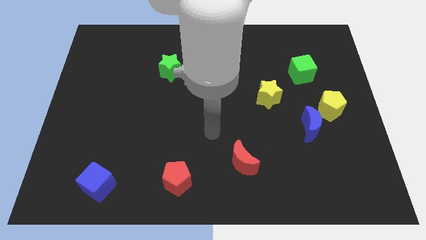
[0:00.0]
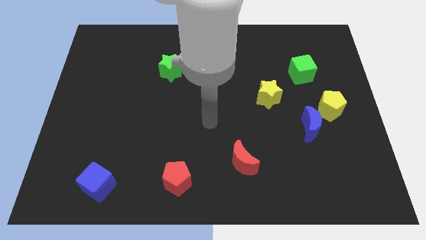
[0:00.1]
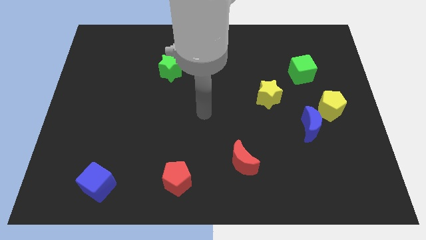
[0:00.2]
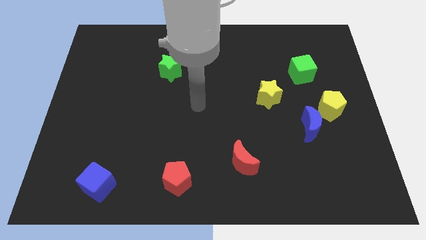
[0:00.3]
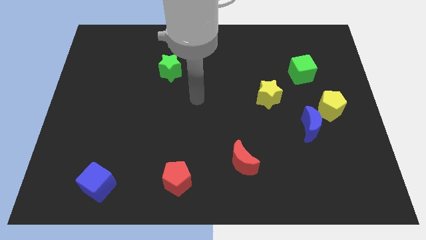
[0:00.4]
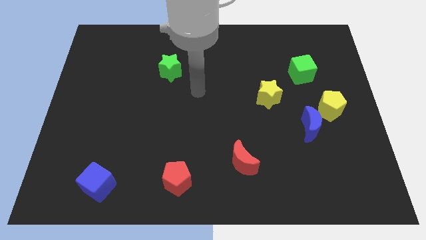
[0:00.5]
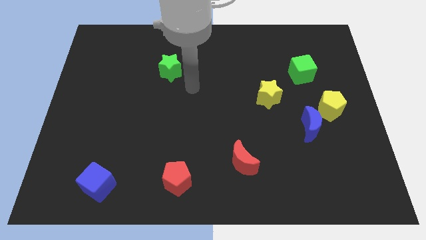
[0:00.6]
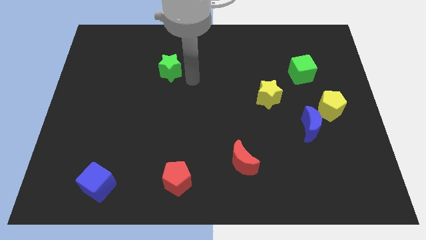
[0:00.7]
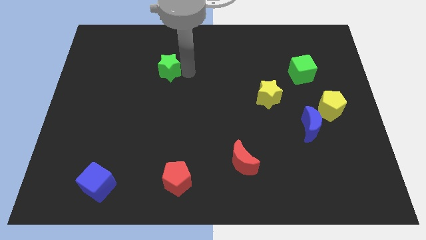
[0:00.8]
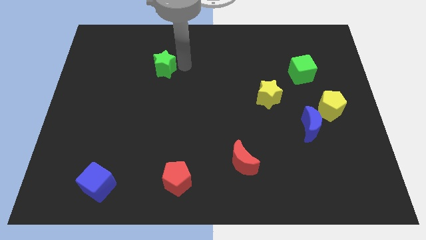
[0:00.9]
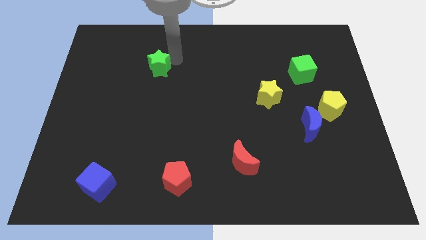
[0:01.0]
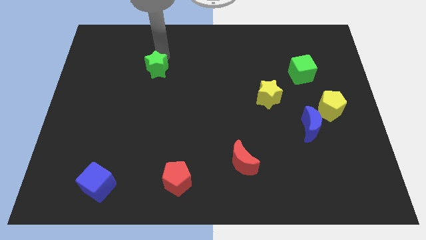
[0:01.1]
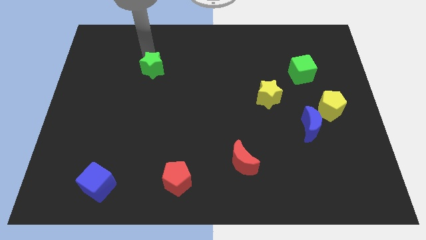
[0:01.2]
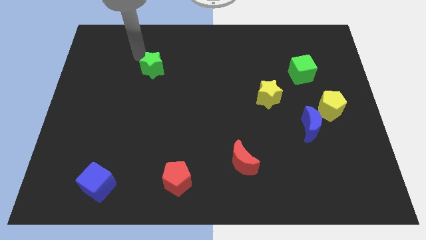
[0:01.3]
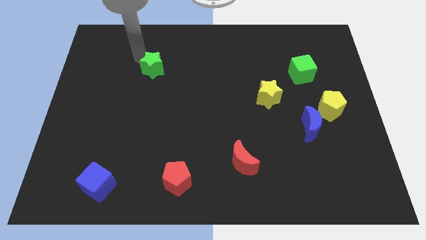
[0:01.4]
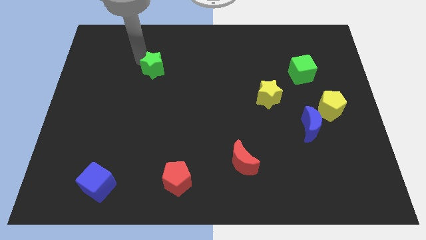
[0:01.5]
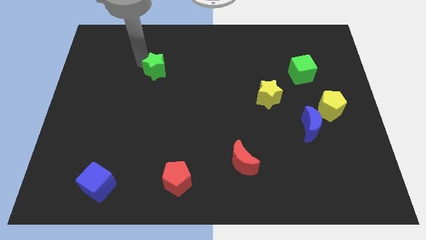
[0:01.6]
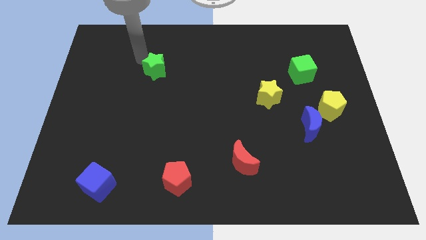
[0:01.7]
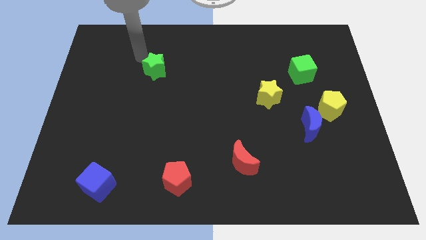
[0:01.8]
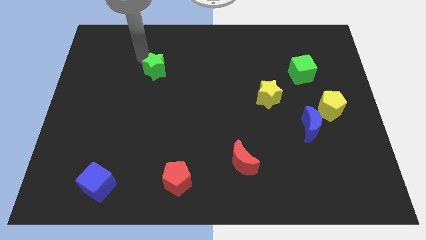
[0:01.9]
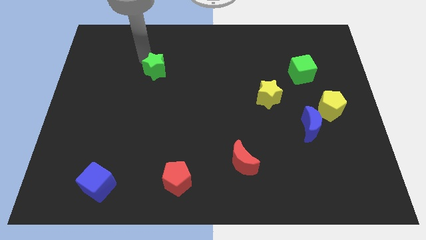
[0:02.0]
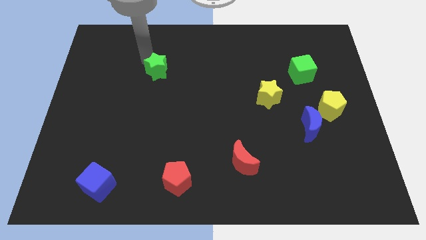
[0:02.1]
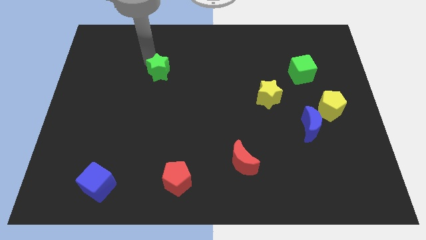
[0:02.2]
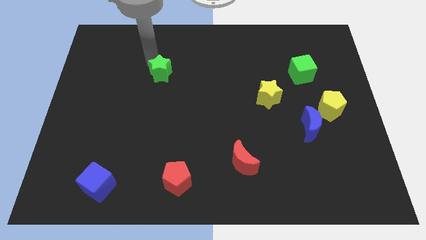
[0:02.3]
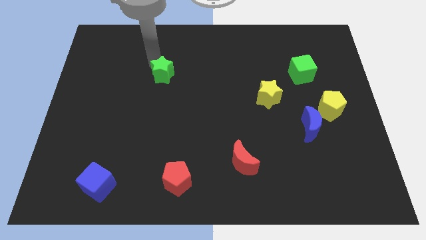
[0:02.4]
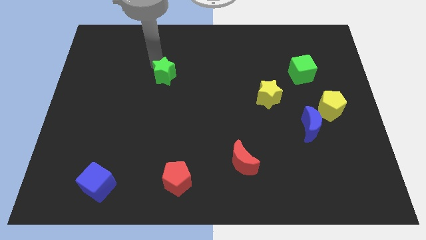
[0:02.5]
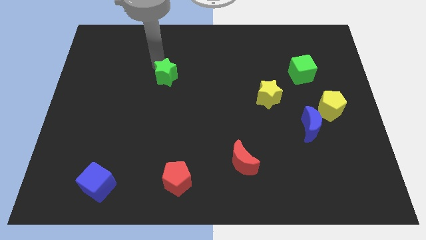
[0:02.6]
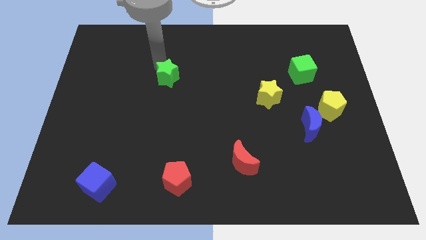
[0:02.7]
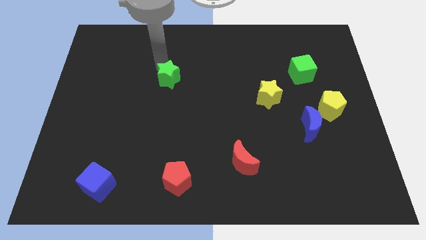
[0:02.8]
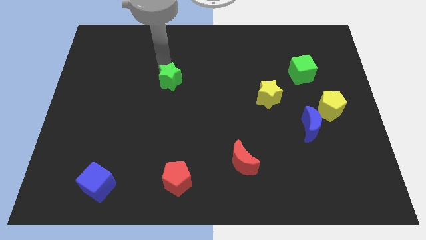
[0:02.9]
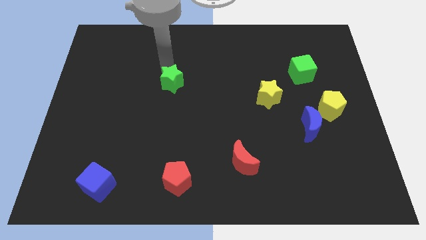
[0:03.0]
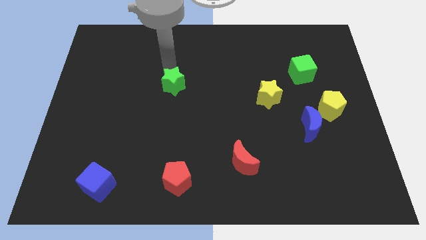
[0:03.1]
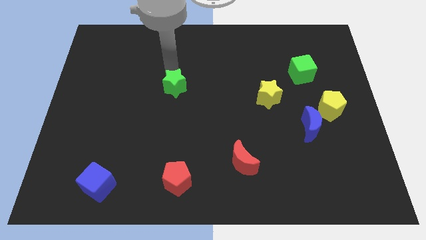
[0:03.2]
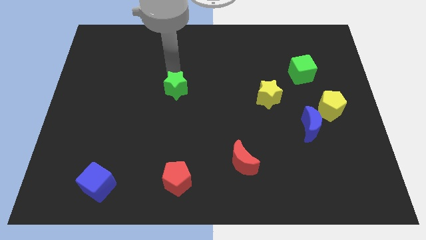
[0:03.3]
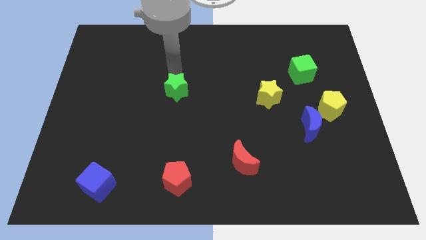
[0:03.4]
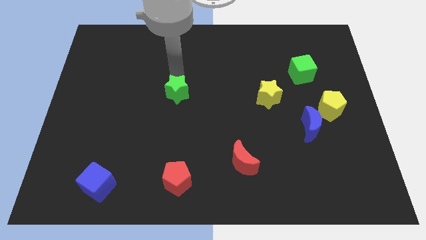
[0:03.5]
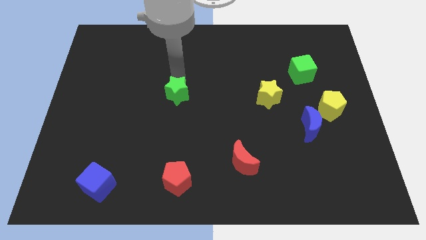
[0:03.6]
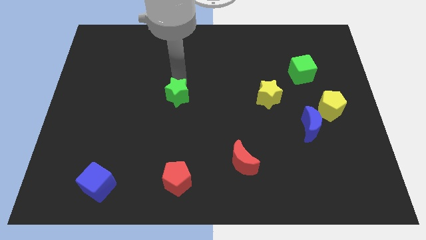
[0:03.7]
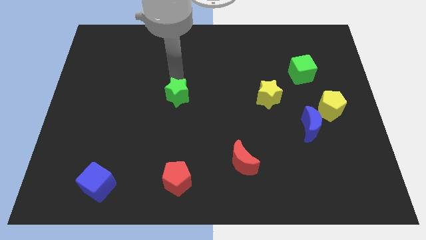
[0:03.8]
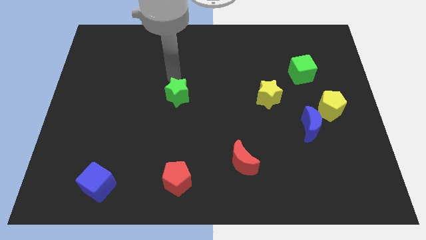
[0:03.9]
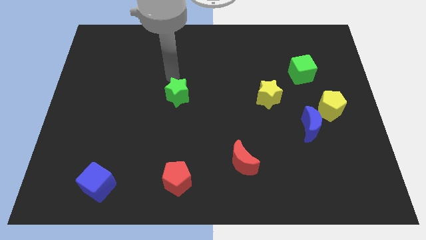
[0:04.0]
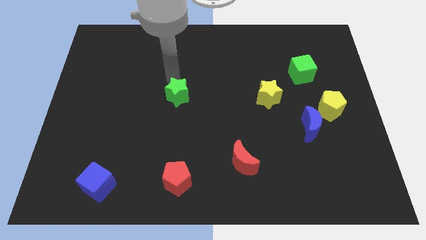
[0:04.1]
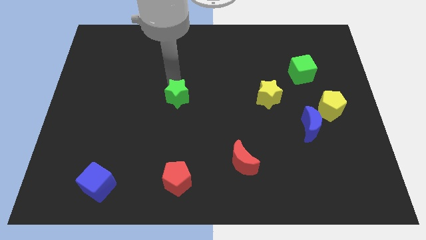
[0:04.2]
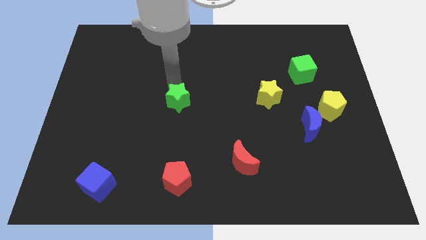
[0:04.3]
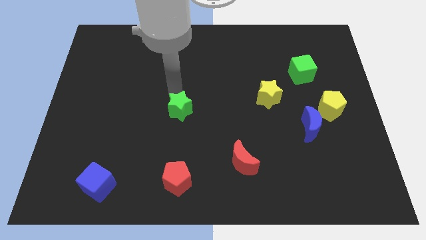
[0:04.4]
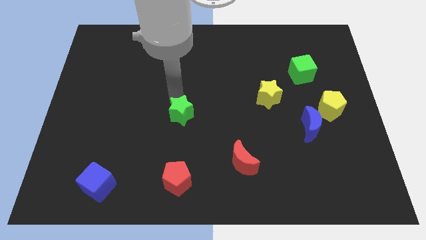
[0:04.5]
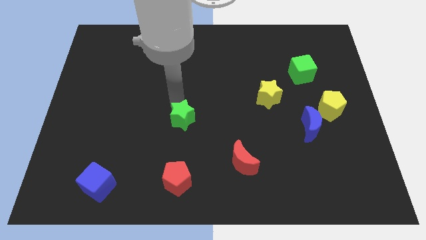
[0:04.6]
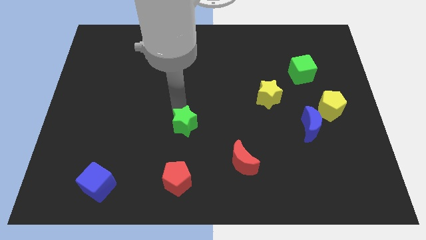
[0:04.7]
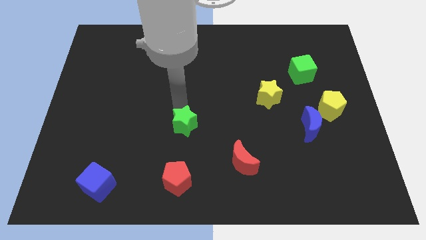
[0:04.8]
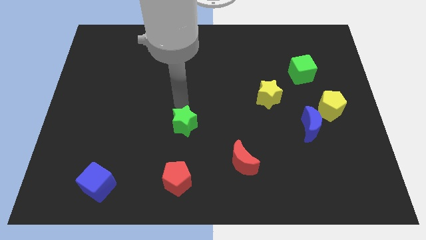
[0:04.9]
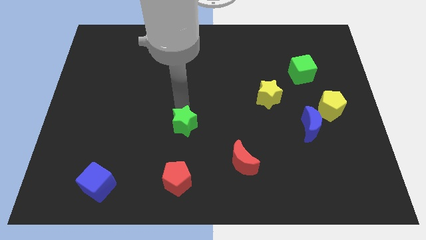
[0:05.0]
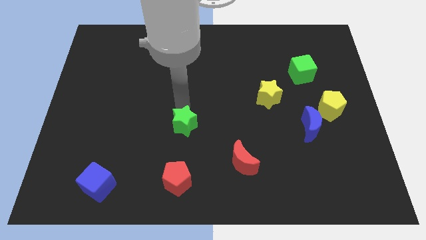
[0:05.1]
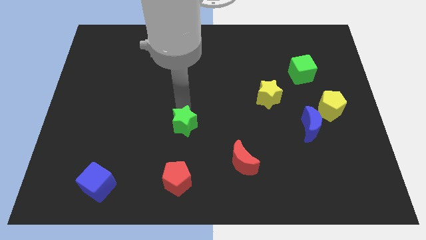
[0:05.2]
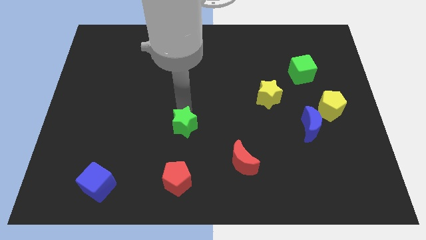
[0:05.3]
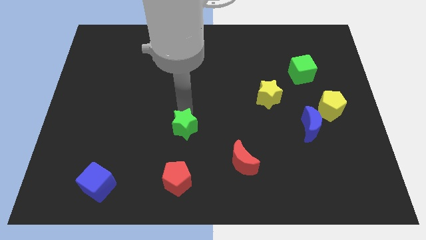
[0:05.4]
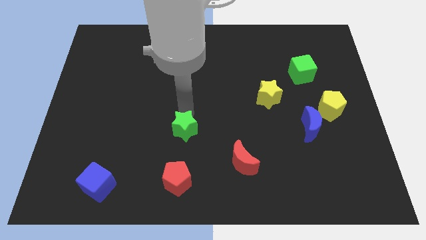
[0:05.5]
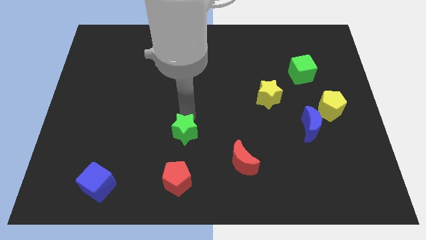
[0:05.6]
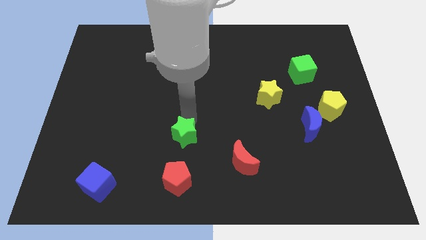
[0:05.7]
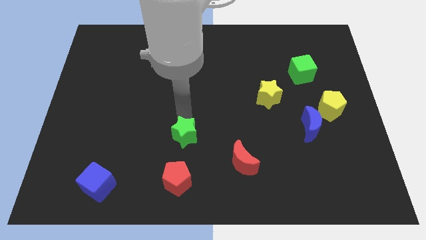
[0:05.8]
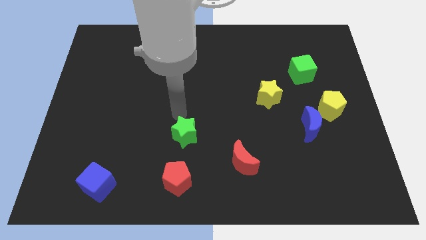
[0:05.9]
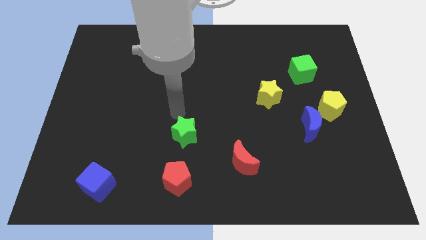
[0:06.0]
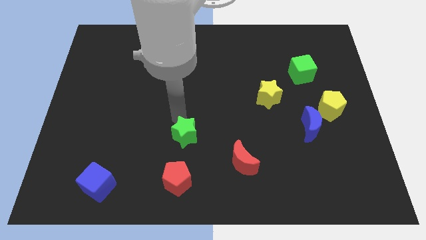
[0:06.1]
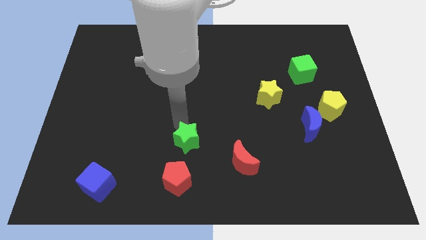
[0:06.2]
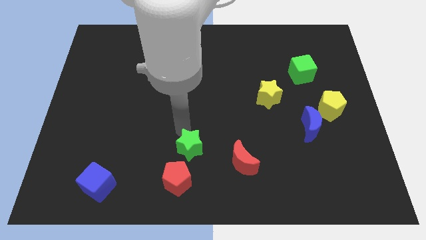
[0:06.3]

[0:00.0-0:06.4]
move the green star just left of the red moon
